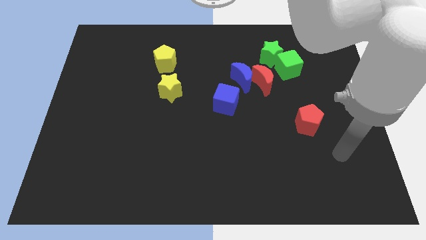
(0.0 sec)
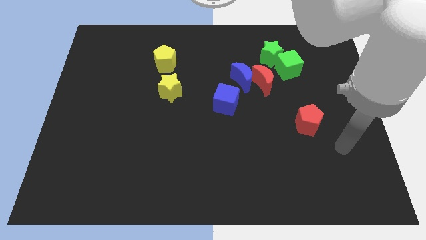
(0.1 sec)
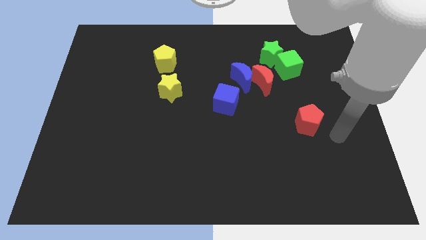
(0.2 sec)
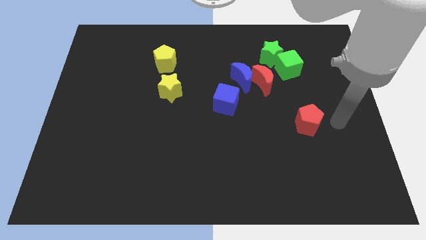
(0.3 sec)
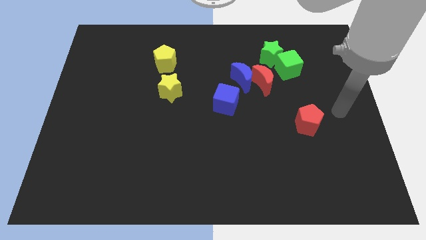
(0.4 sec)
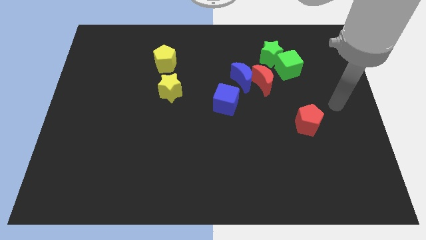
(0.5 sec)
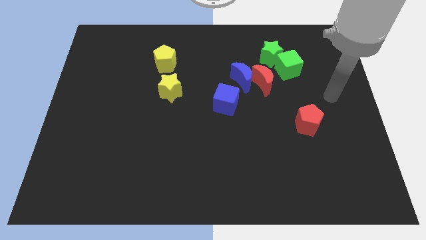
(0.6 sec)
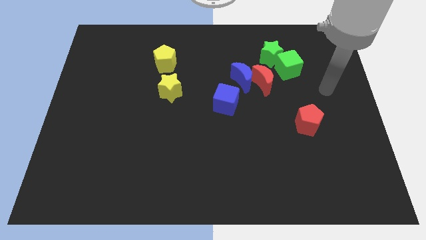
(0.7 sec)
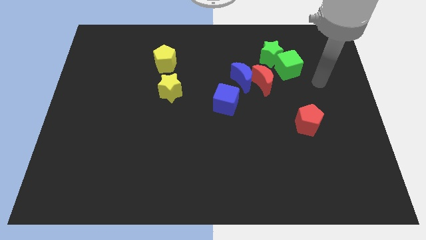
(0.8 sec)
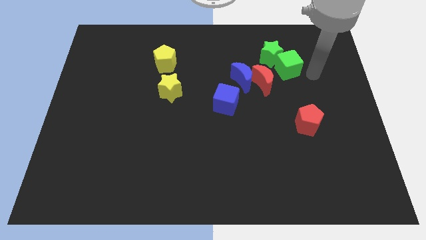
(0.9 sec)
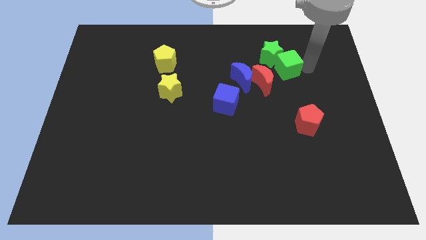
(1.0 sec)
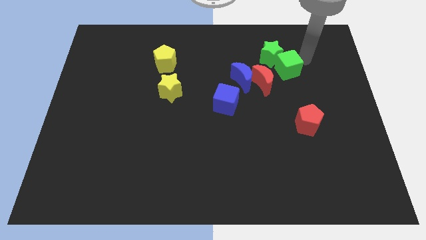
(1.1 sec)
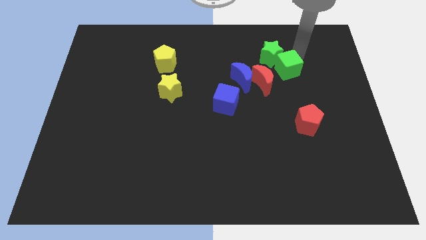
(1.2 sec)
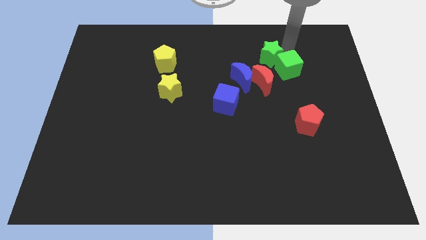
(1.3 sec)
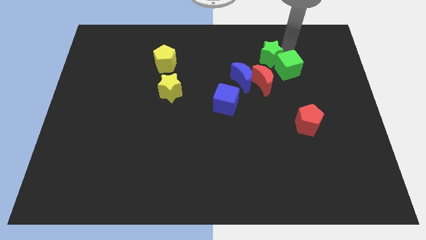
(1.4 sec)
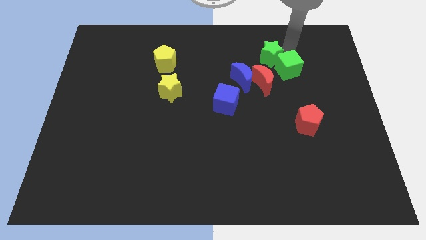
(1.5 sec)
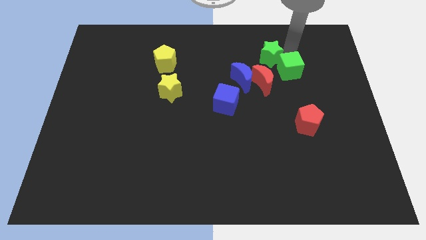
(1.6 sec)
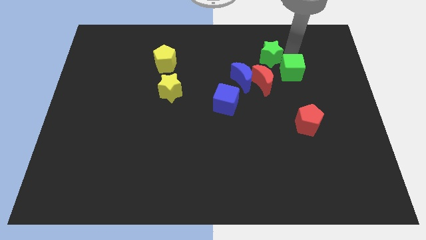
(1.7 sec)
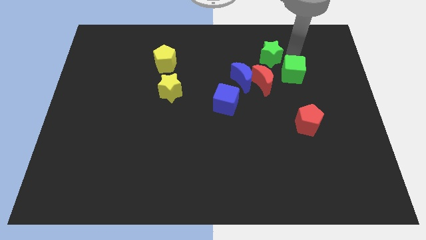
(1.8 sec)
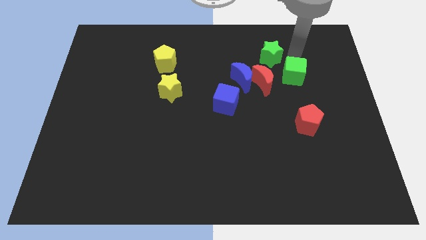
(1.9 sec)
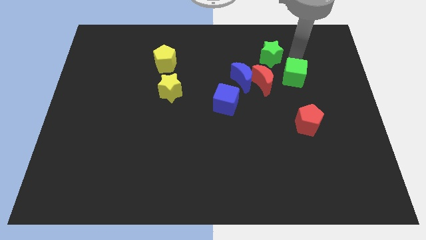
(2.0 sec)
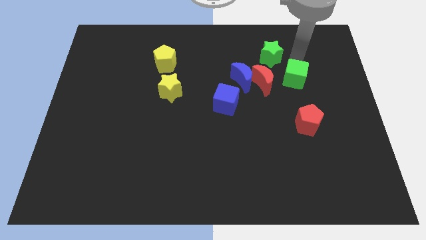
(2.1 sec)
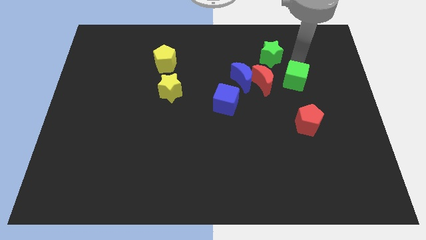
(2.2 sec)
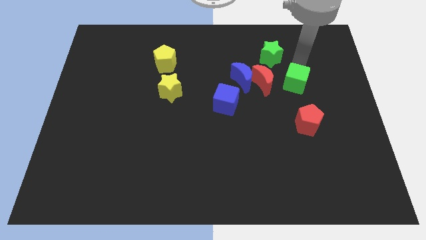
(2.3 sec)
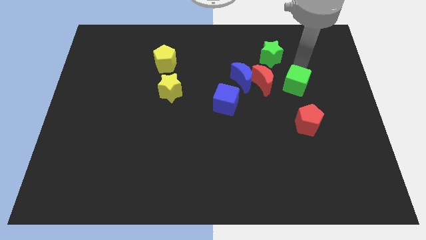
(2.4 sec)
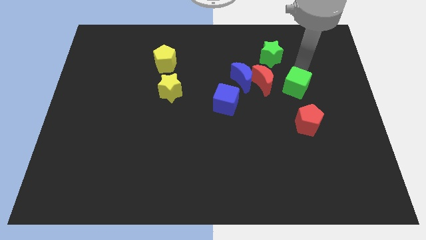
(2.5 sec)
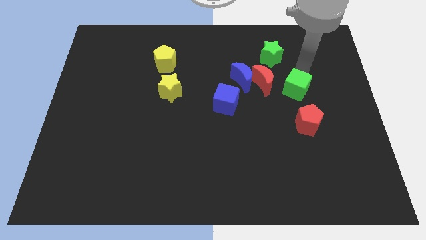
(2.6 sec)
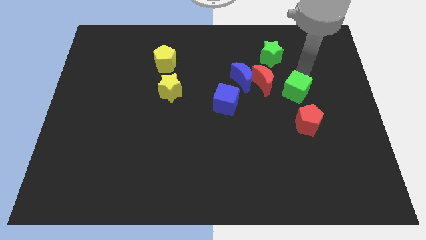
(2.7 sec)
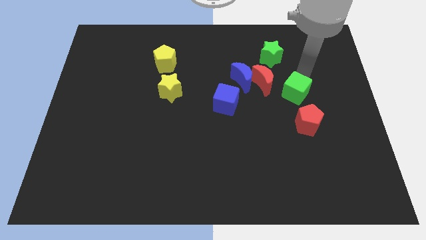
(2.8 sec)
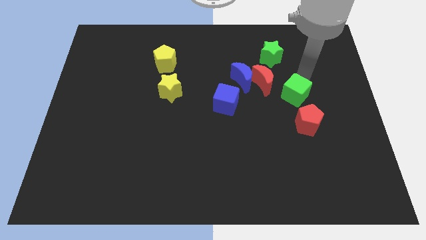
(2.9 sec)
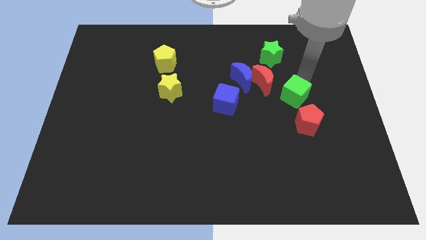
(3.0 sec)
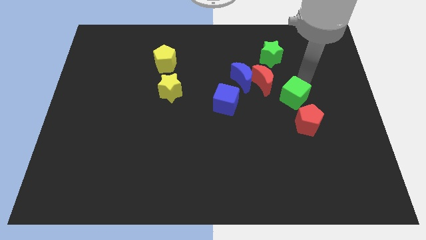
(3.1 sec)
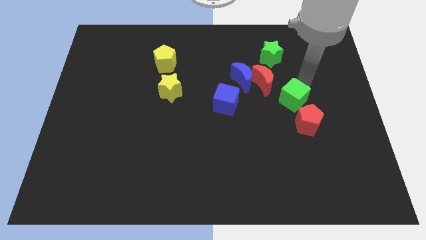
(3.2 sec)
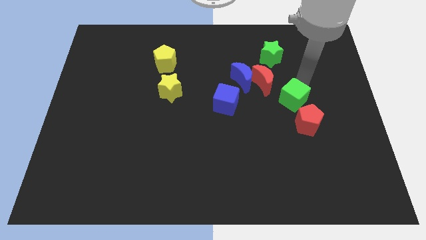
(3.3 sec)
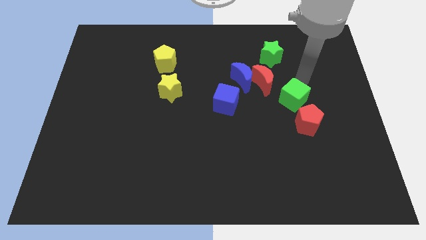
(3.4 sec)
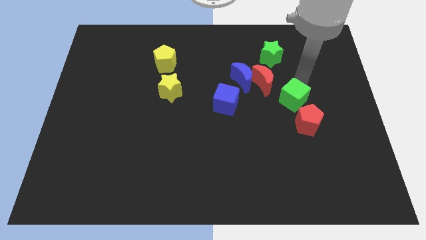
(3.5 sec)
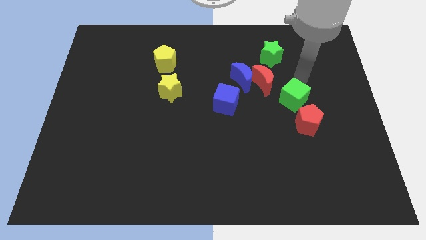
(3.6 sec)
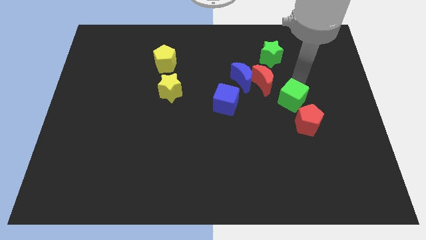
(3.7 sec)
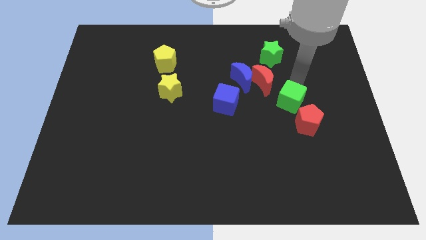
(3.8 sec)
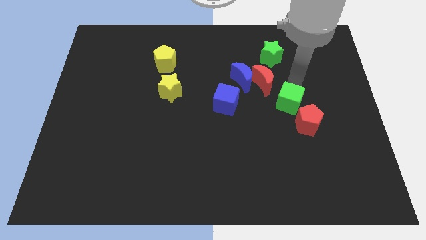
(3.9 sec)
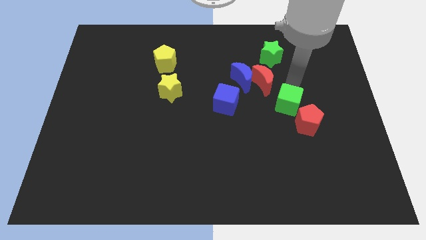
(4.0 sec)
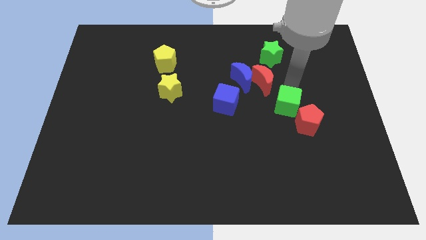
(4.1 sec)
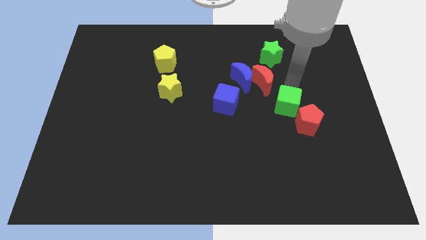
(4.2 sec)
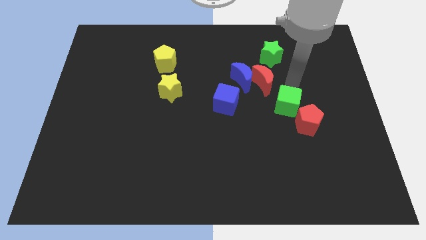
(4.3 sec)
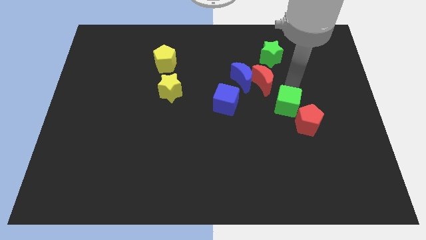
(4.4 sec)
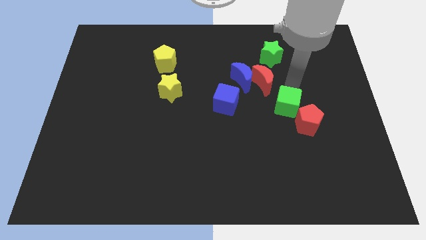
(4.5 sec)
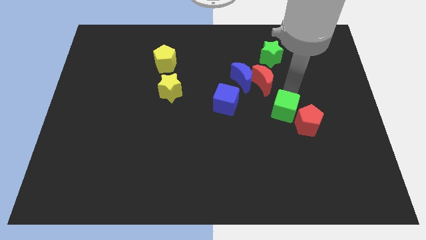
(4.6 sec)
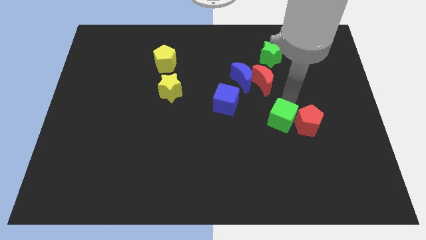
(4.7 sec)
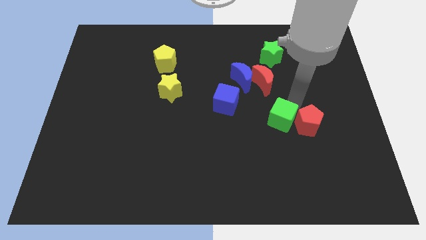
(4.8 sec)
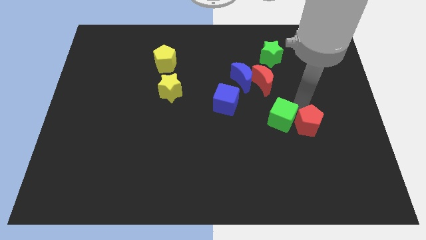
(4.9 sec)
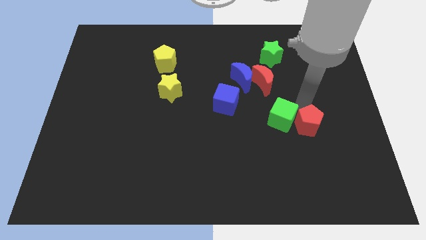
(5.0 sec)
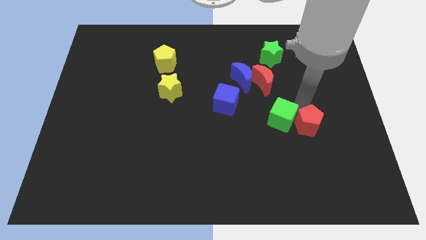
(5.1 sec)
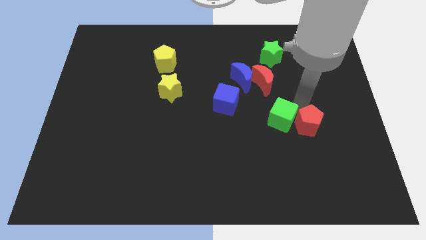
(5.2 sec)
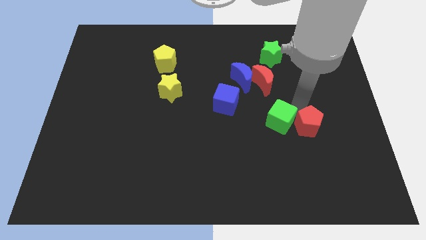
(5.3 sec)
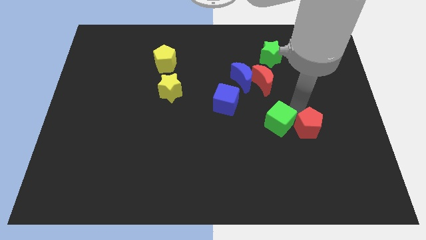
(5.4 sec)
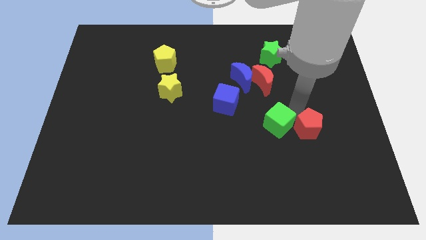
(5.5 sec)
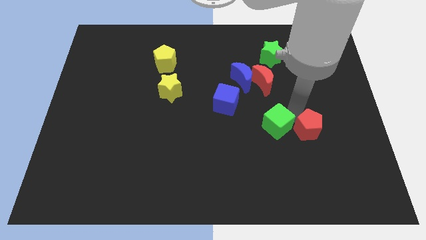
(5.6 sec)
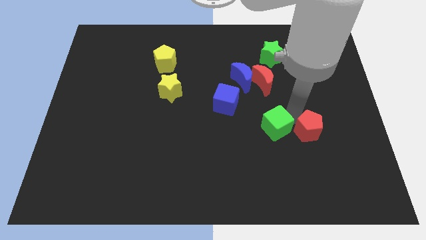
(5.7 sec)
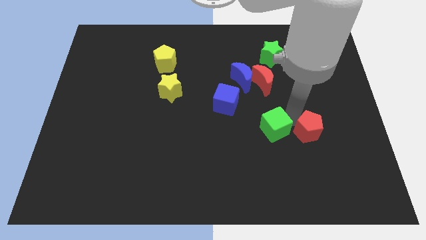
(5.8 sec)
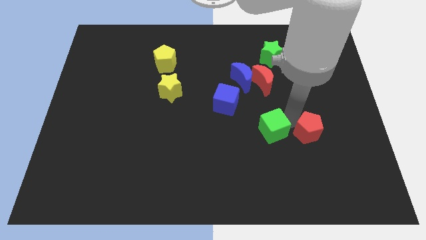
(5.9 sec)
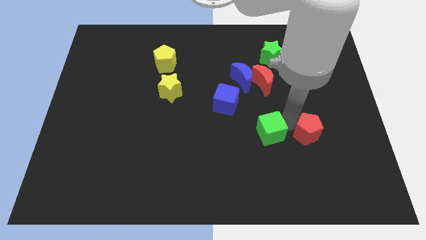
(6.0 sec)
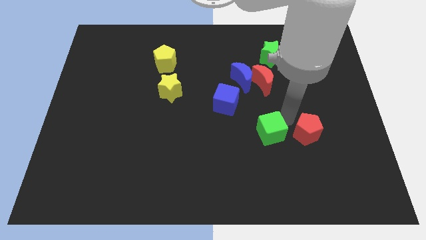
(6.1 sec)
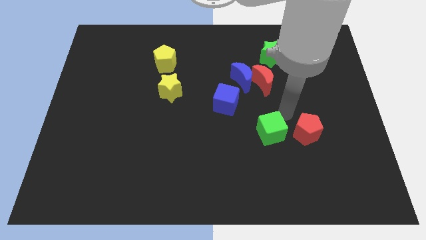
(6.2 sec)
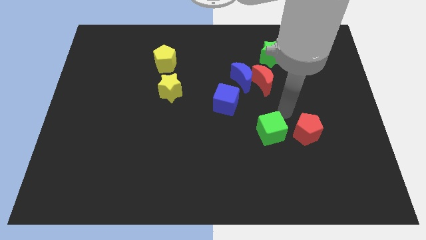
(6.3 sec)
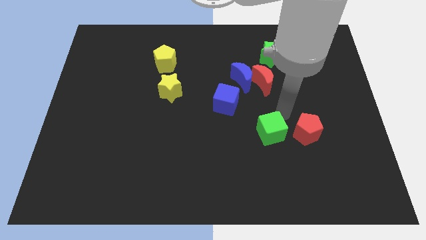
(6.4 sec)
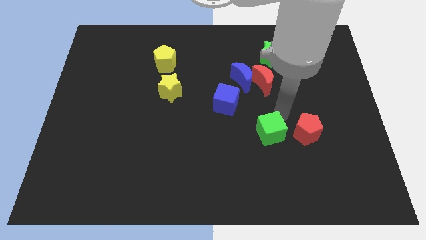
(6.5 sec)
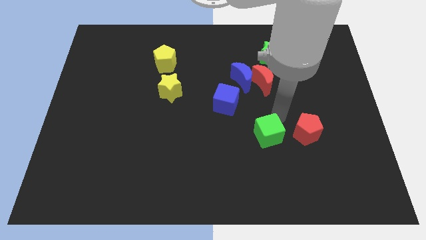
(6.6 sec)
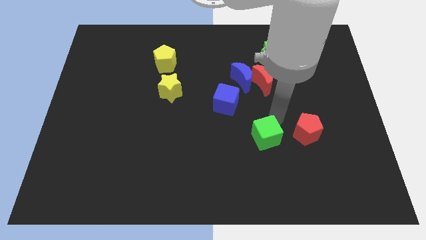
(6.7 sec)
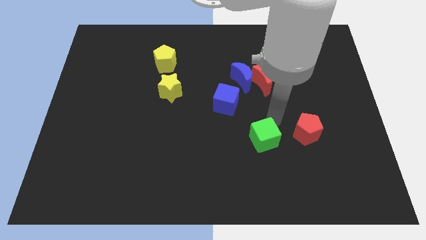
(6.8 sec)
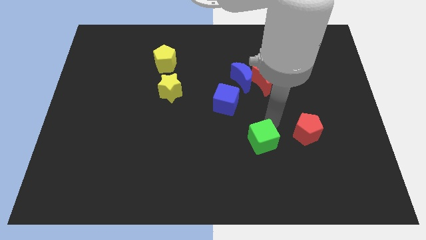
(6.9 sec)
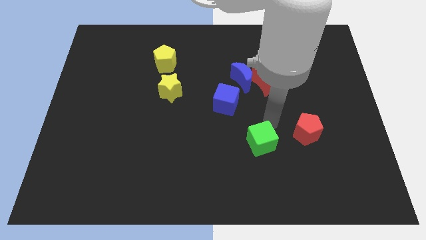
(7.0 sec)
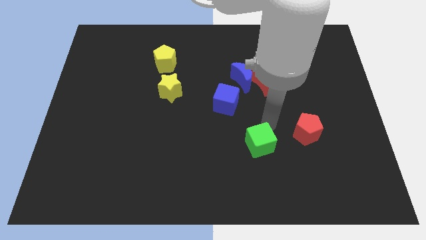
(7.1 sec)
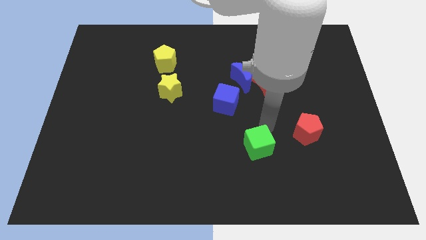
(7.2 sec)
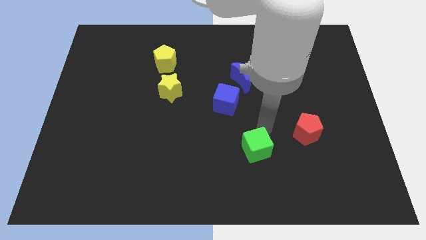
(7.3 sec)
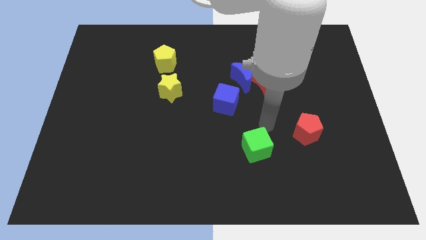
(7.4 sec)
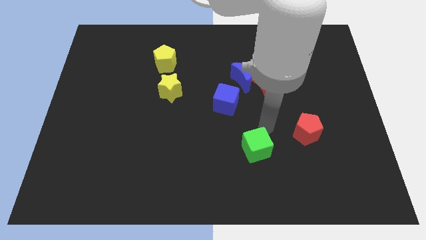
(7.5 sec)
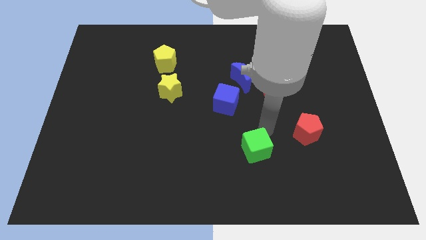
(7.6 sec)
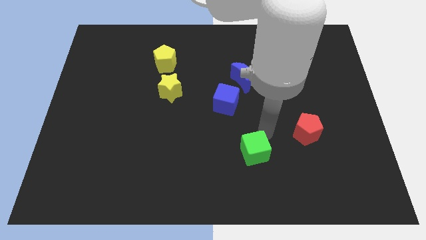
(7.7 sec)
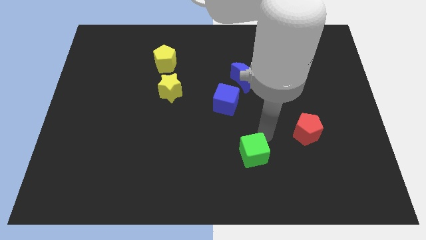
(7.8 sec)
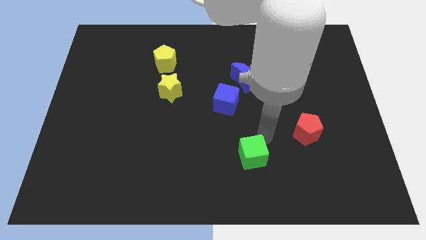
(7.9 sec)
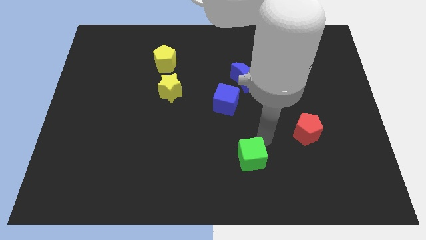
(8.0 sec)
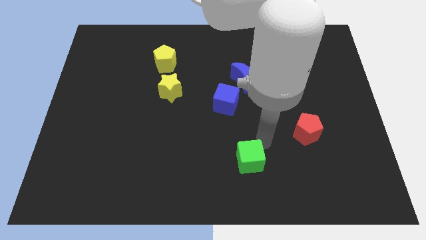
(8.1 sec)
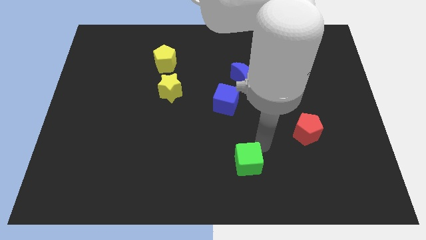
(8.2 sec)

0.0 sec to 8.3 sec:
put the green cube to the bottom side
